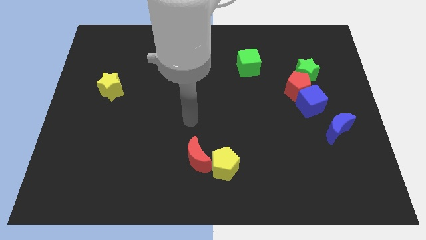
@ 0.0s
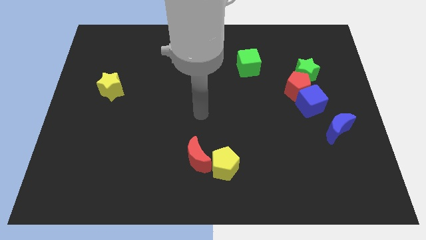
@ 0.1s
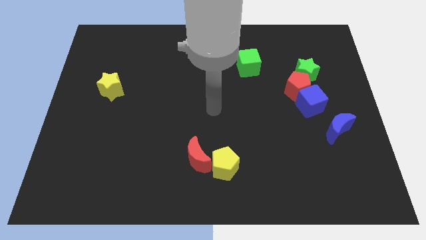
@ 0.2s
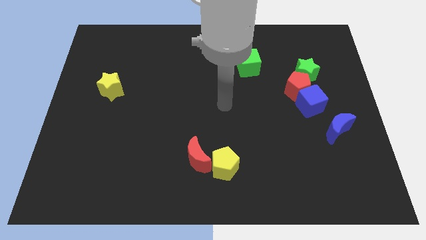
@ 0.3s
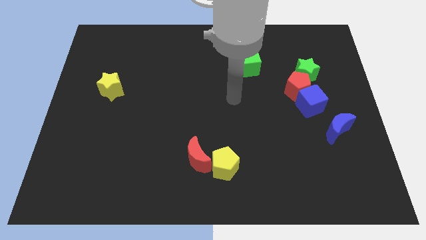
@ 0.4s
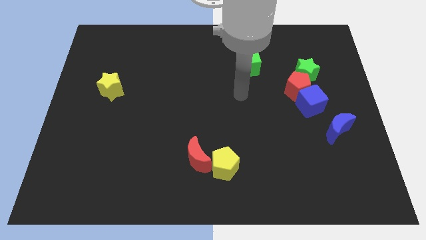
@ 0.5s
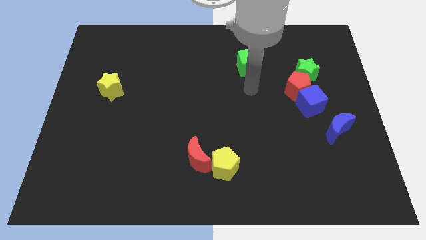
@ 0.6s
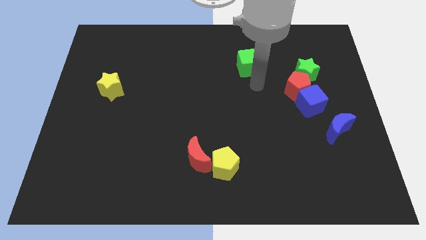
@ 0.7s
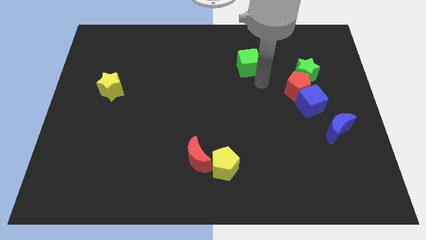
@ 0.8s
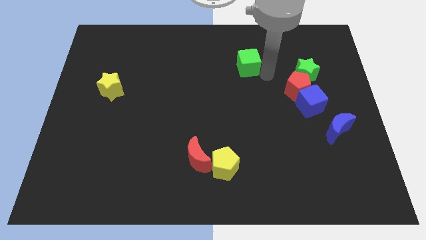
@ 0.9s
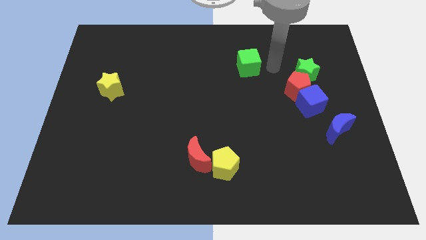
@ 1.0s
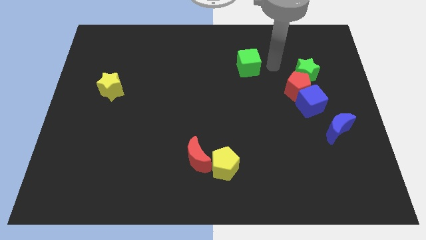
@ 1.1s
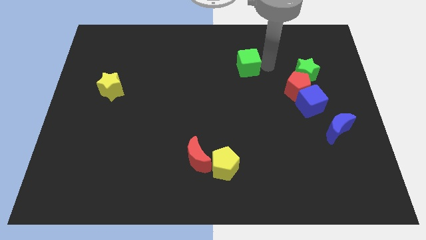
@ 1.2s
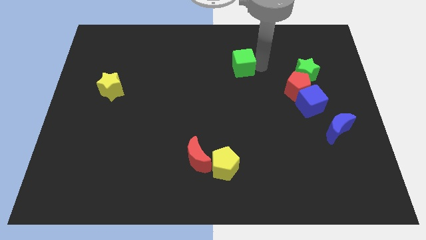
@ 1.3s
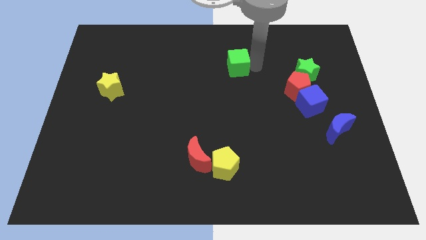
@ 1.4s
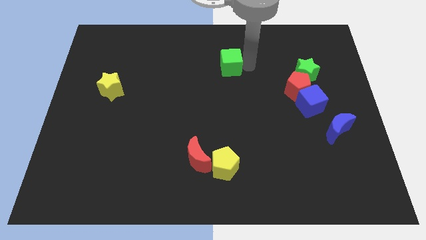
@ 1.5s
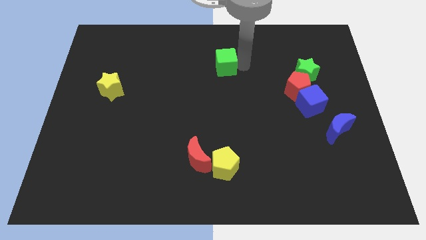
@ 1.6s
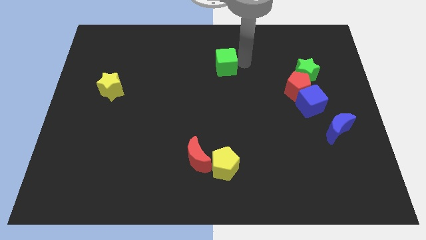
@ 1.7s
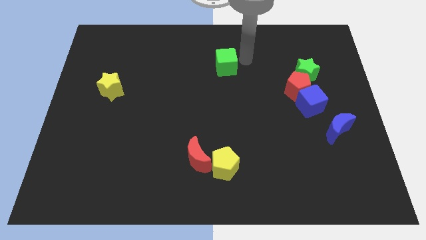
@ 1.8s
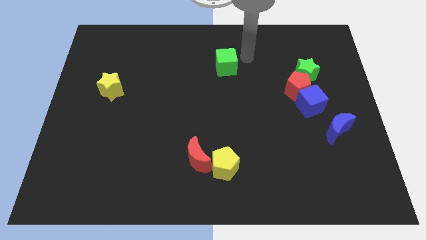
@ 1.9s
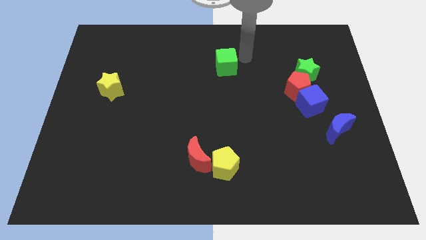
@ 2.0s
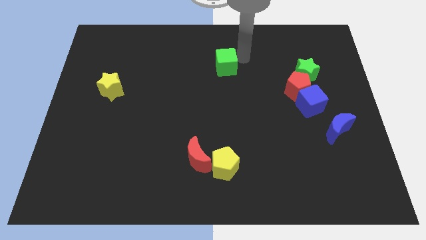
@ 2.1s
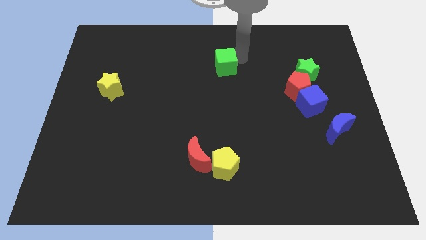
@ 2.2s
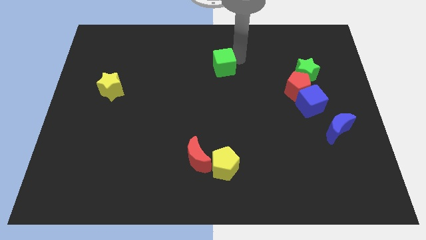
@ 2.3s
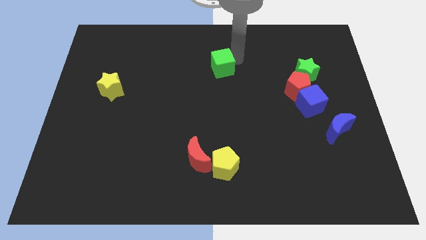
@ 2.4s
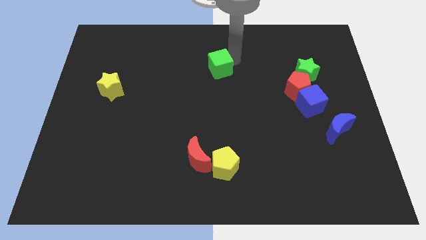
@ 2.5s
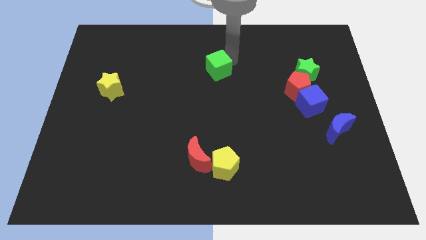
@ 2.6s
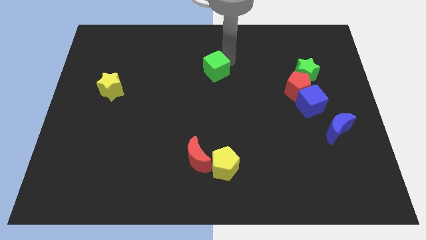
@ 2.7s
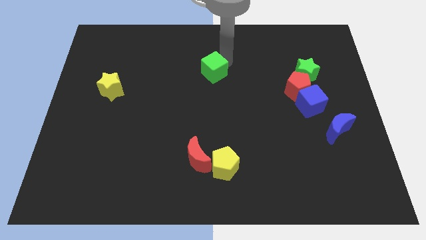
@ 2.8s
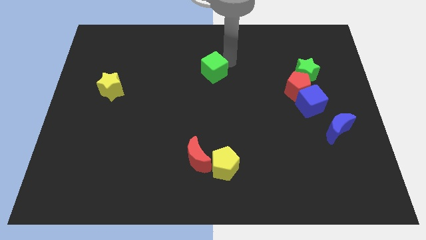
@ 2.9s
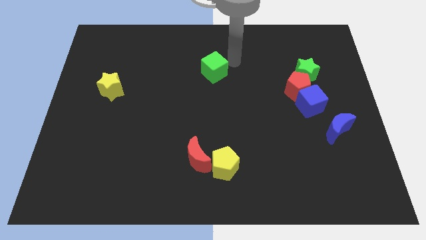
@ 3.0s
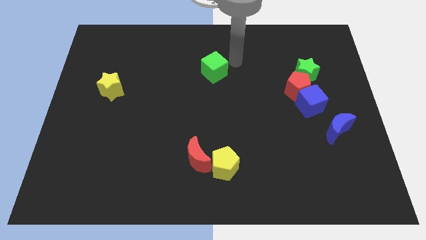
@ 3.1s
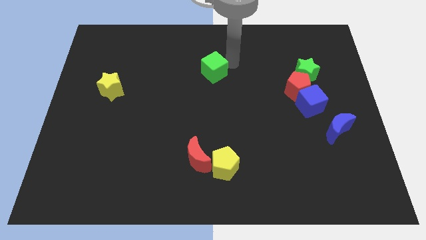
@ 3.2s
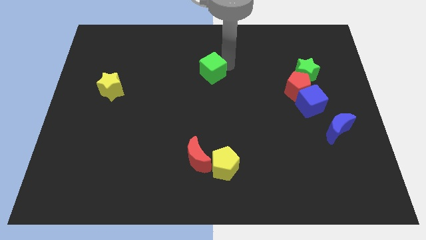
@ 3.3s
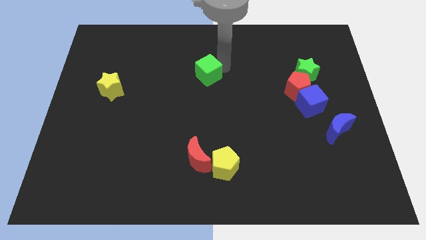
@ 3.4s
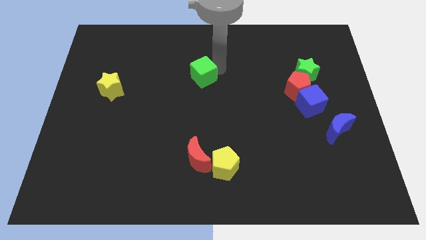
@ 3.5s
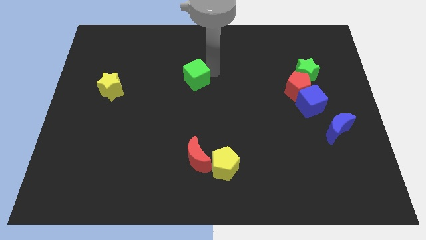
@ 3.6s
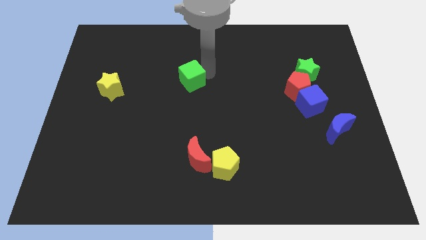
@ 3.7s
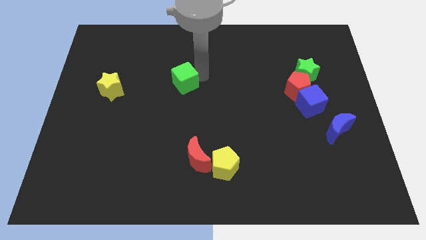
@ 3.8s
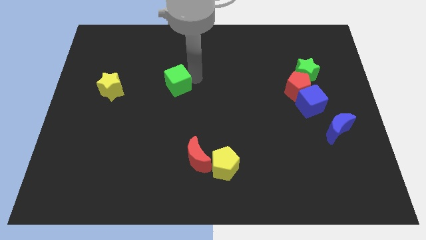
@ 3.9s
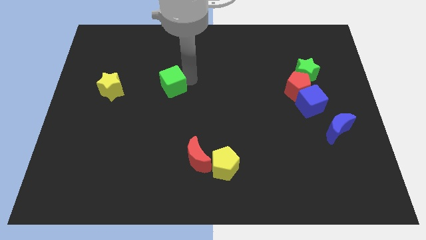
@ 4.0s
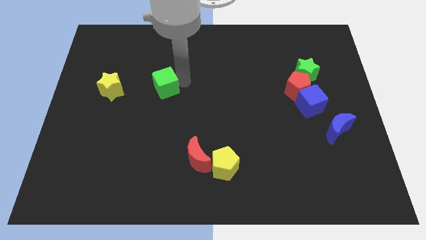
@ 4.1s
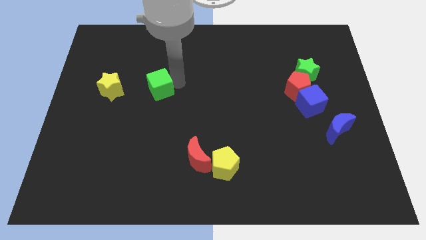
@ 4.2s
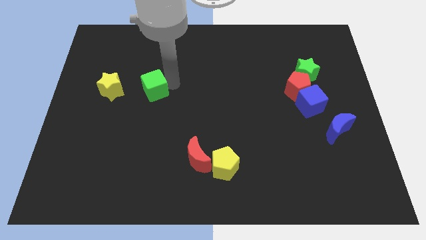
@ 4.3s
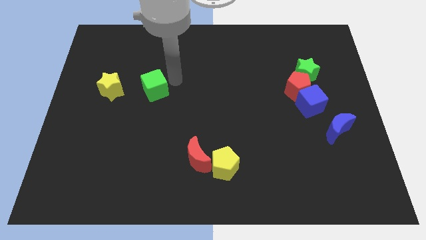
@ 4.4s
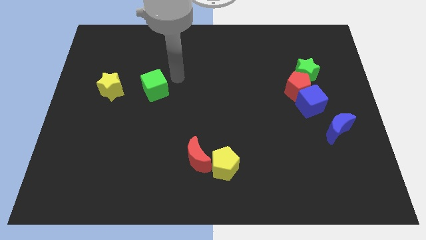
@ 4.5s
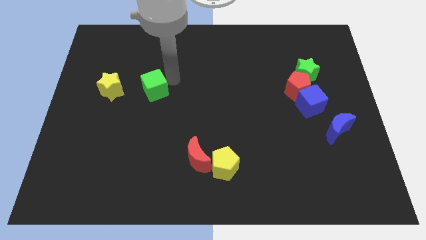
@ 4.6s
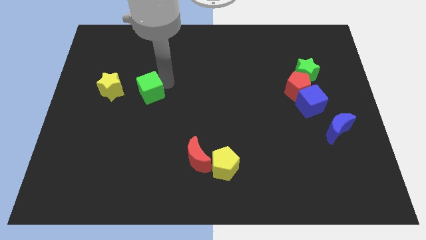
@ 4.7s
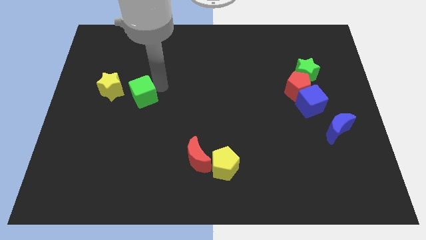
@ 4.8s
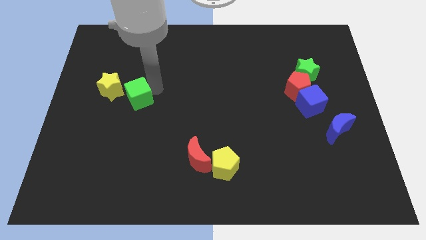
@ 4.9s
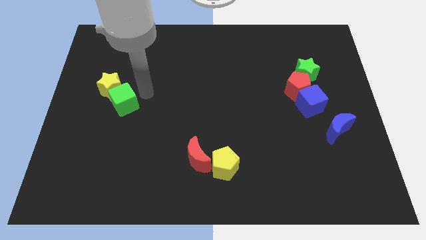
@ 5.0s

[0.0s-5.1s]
slide the green cube below the yellow star

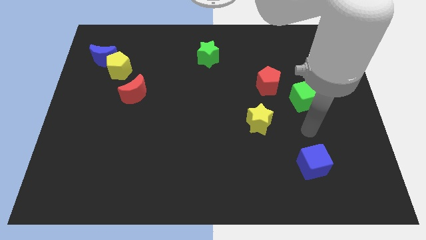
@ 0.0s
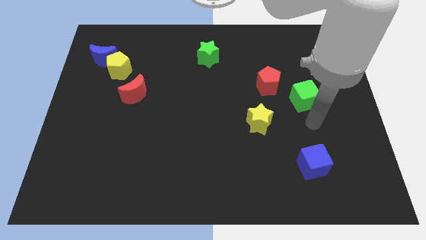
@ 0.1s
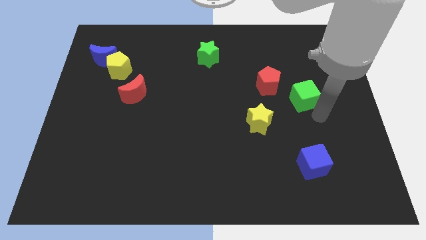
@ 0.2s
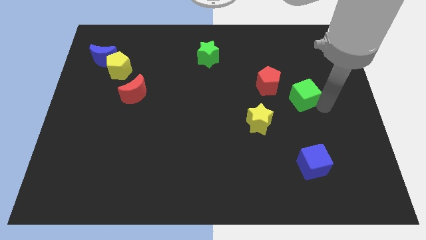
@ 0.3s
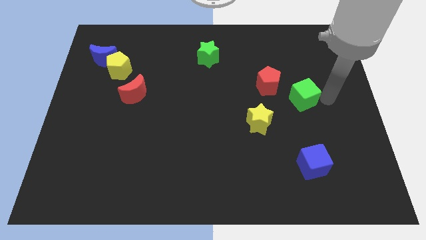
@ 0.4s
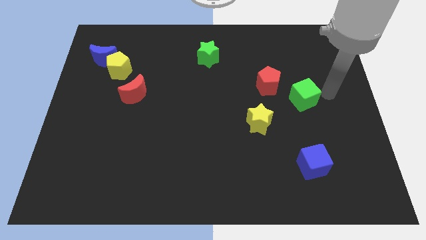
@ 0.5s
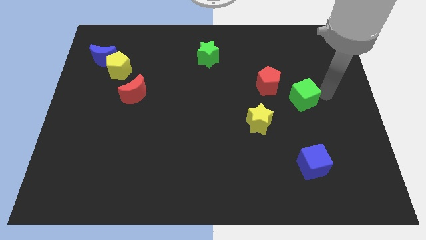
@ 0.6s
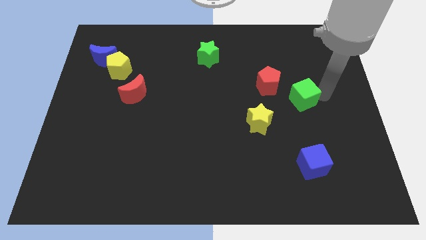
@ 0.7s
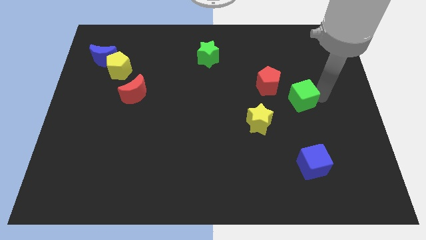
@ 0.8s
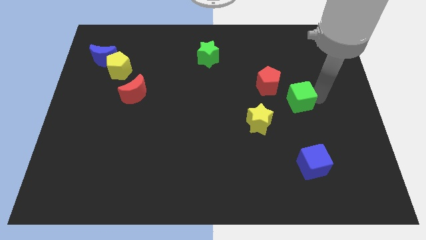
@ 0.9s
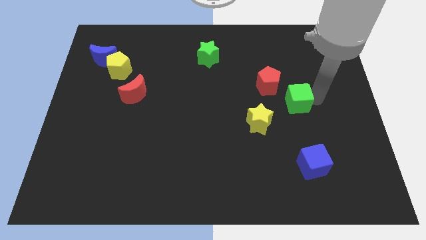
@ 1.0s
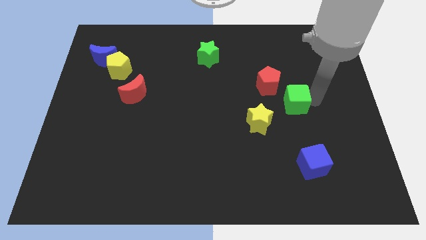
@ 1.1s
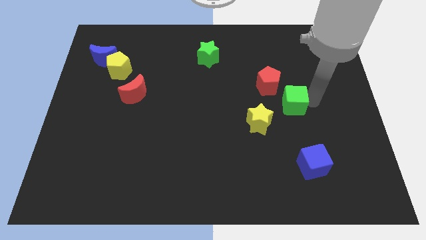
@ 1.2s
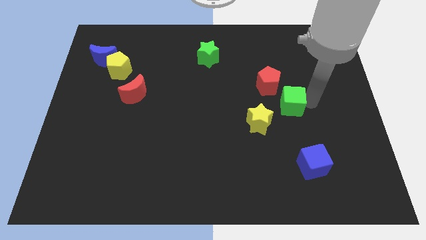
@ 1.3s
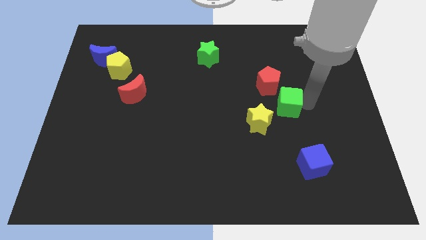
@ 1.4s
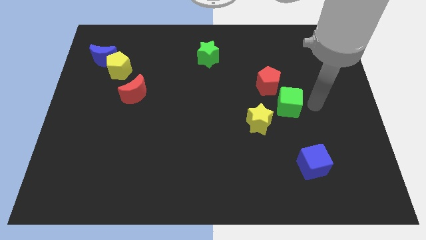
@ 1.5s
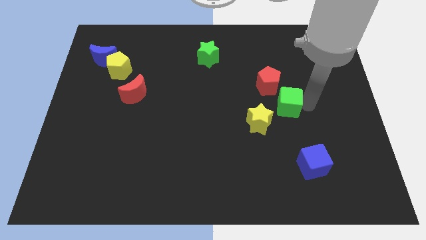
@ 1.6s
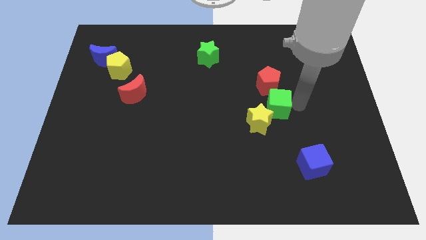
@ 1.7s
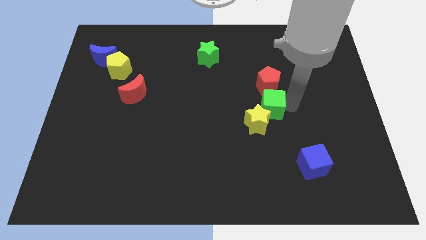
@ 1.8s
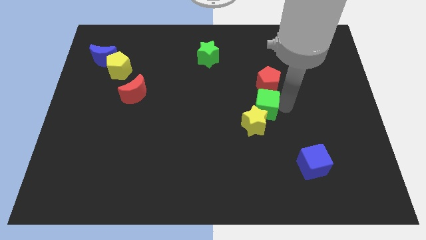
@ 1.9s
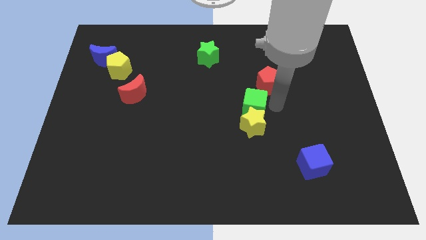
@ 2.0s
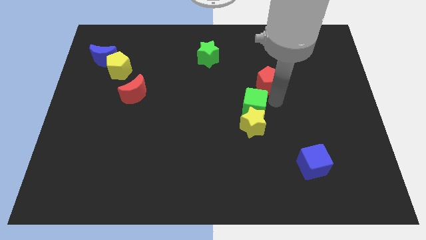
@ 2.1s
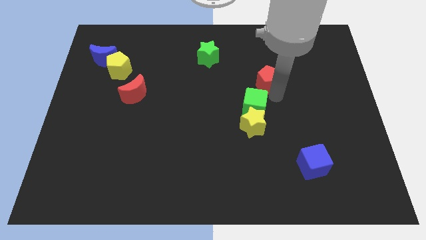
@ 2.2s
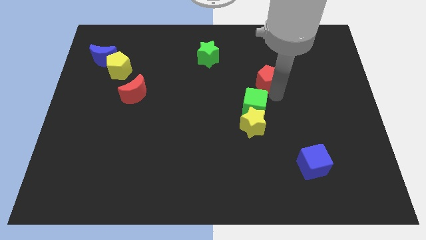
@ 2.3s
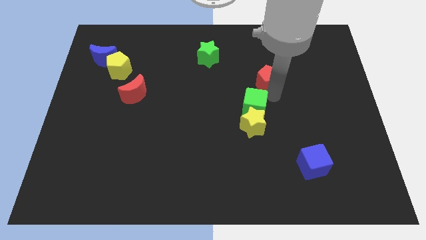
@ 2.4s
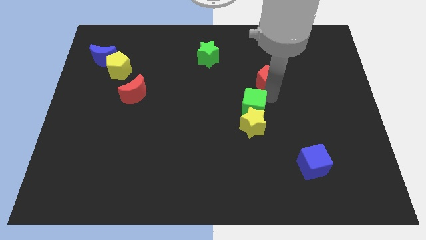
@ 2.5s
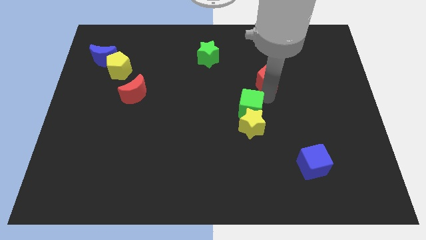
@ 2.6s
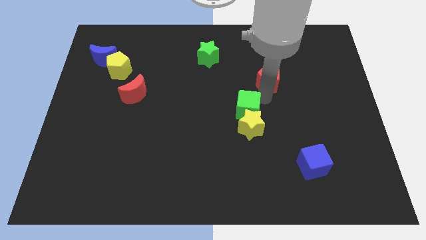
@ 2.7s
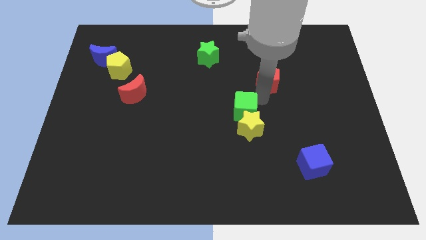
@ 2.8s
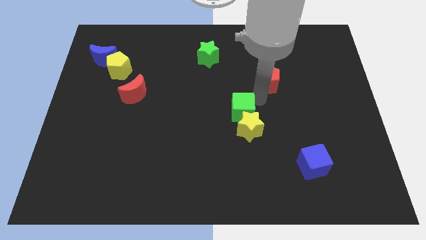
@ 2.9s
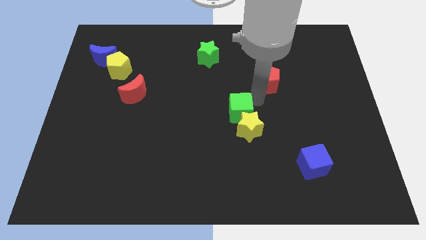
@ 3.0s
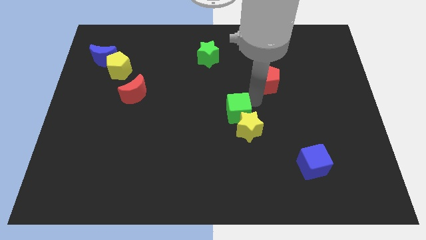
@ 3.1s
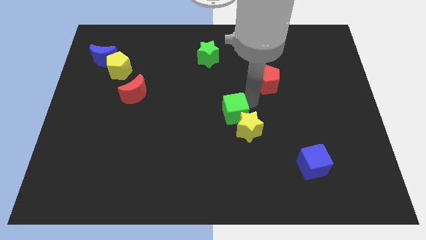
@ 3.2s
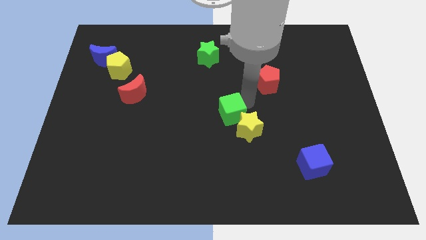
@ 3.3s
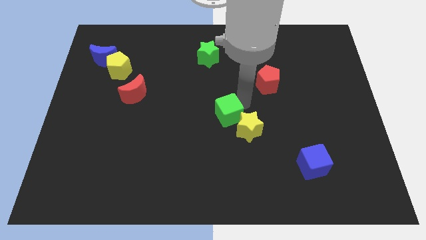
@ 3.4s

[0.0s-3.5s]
slide the green cube to the left of the yellow star
